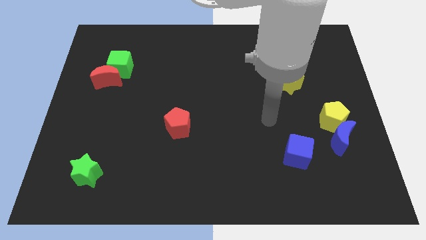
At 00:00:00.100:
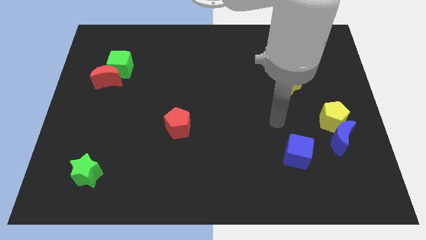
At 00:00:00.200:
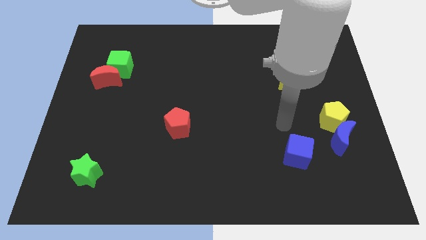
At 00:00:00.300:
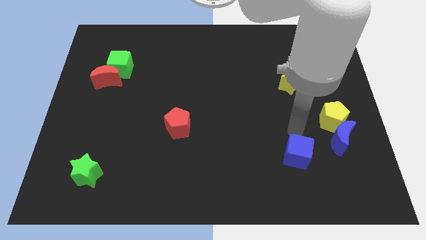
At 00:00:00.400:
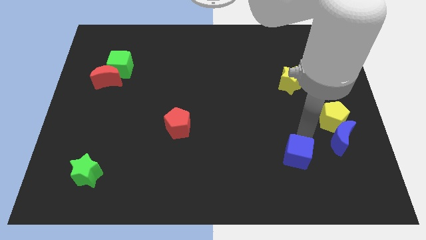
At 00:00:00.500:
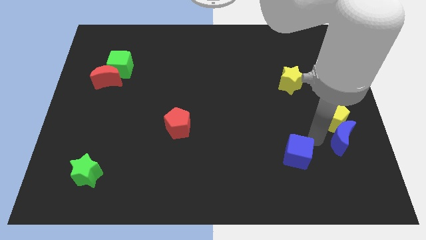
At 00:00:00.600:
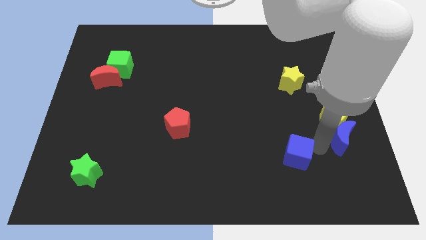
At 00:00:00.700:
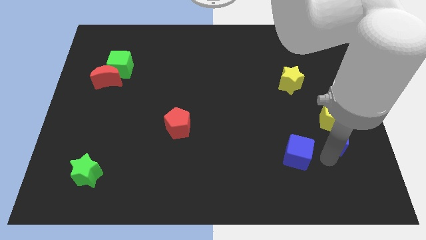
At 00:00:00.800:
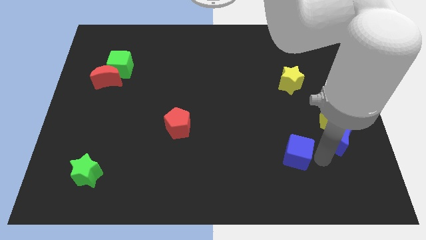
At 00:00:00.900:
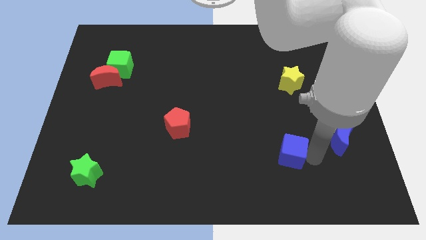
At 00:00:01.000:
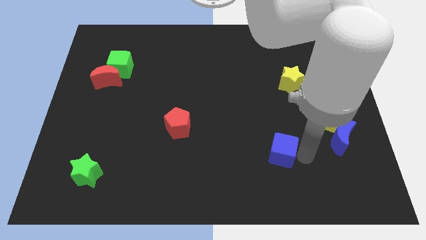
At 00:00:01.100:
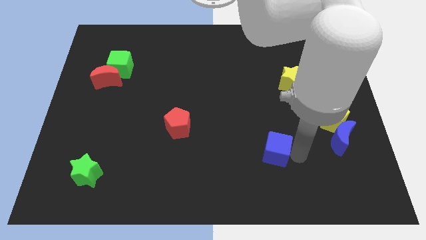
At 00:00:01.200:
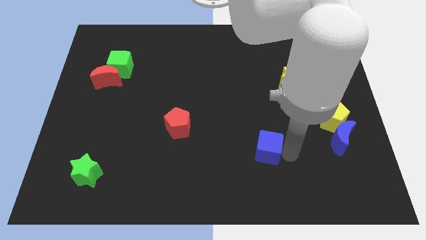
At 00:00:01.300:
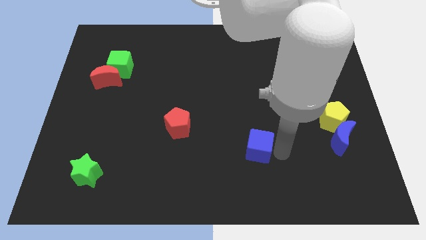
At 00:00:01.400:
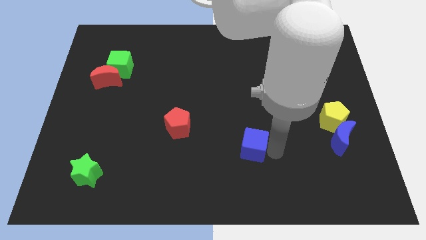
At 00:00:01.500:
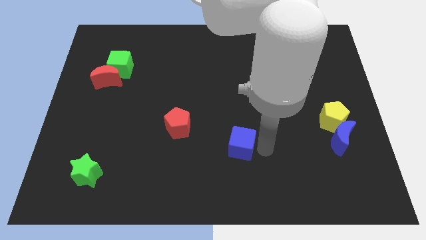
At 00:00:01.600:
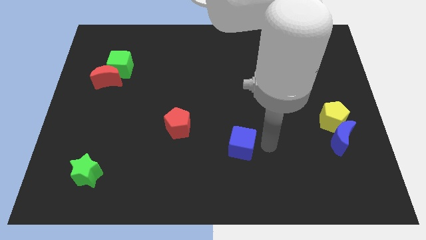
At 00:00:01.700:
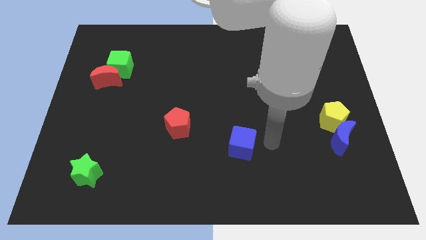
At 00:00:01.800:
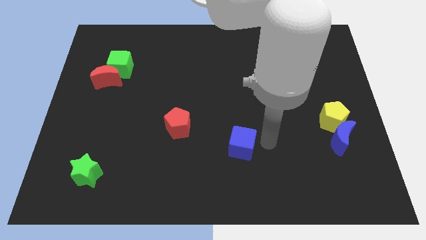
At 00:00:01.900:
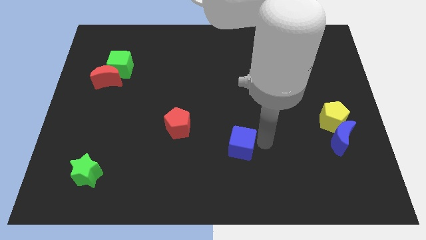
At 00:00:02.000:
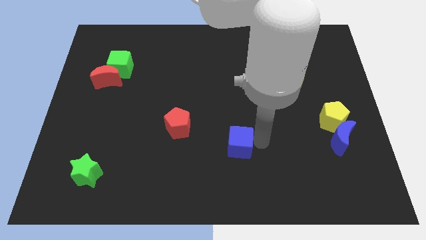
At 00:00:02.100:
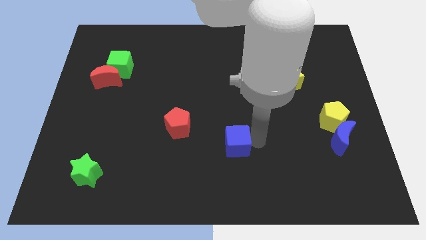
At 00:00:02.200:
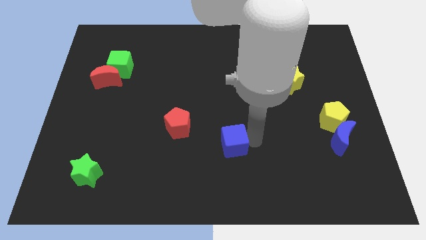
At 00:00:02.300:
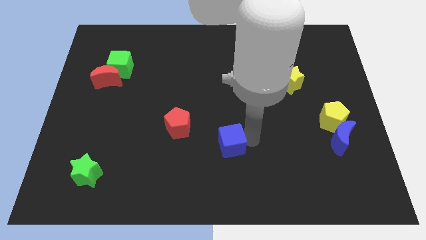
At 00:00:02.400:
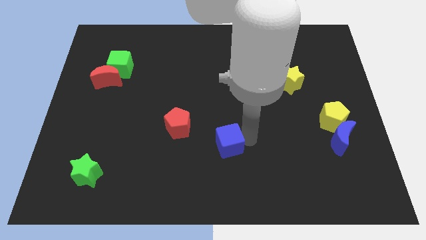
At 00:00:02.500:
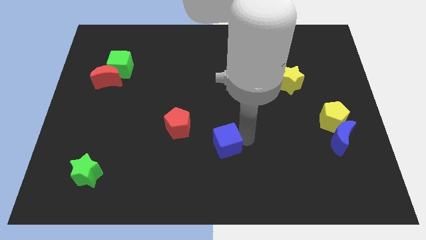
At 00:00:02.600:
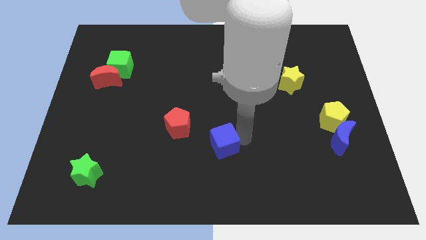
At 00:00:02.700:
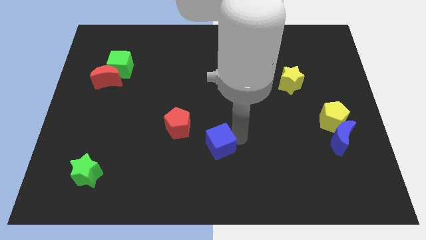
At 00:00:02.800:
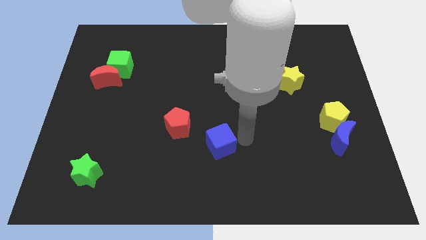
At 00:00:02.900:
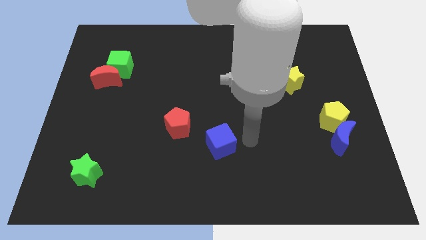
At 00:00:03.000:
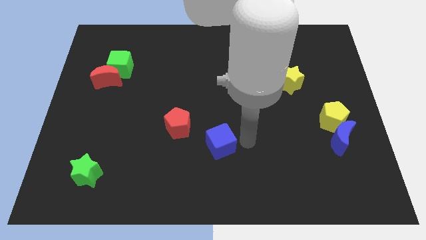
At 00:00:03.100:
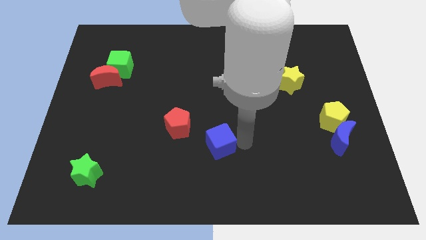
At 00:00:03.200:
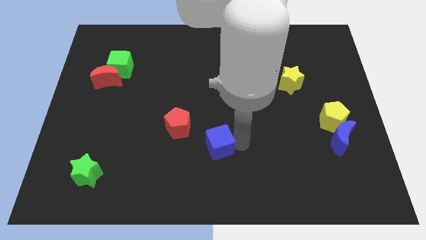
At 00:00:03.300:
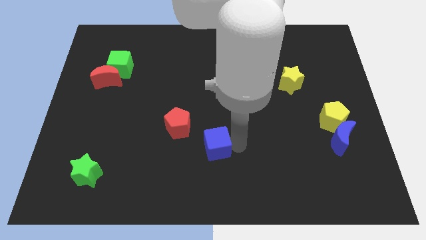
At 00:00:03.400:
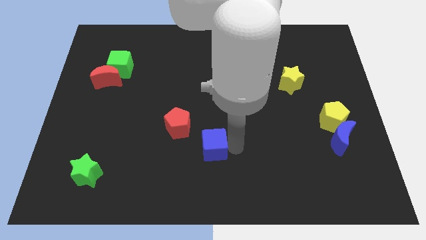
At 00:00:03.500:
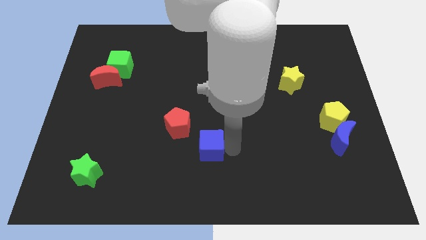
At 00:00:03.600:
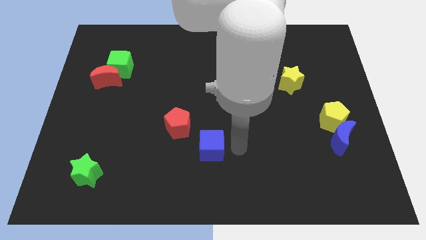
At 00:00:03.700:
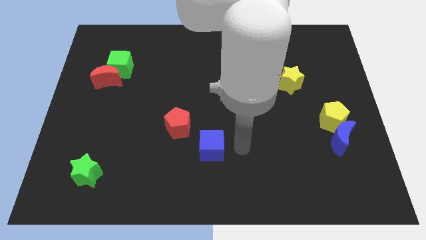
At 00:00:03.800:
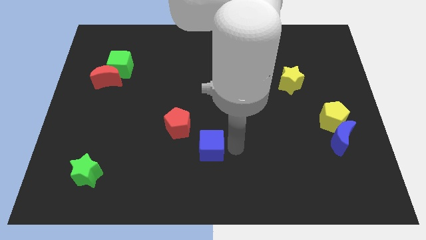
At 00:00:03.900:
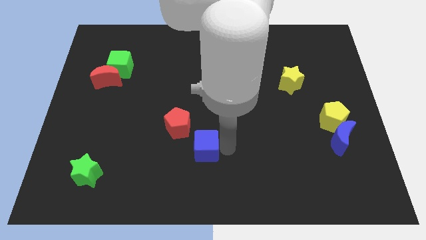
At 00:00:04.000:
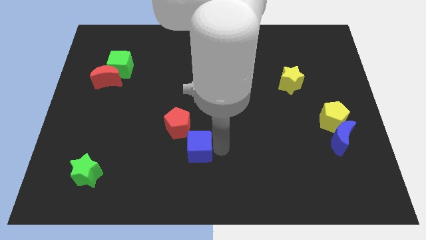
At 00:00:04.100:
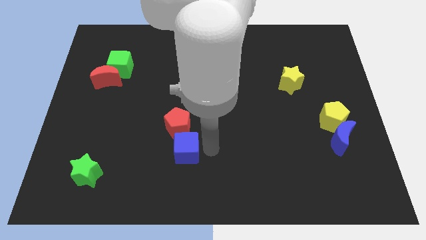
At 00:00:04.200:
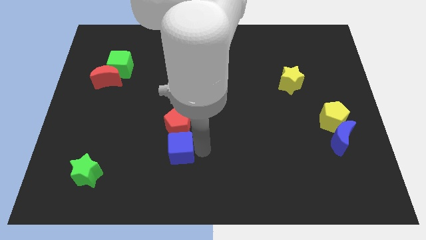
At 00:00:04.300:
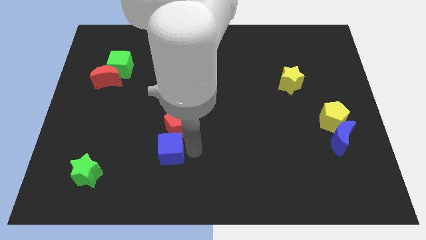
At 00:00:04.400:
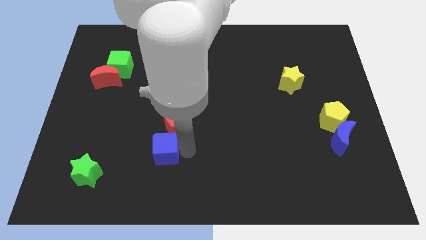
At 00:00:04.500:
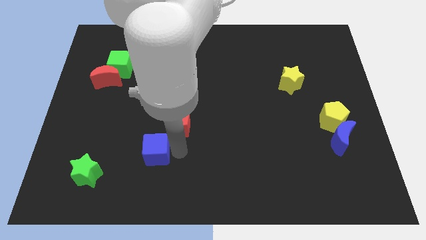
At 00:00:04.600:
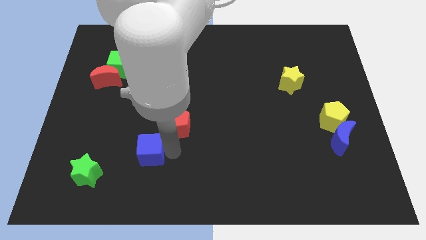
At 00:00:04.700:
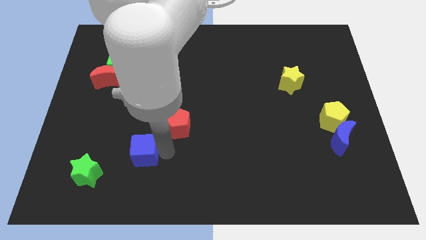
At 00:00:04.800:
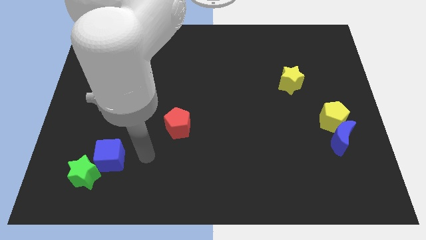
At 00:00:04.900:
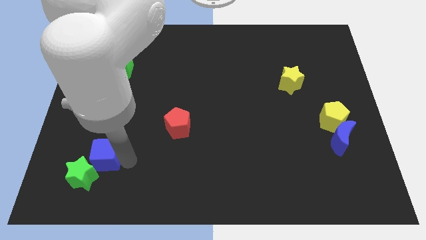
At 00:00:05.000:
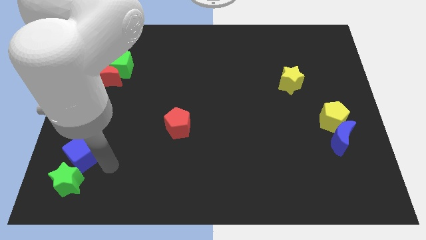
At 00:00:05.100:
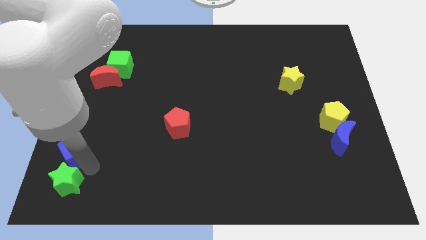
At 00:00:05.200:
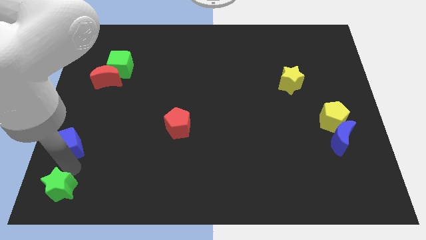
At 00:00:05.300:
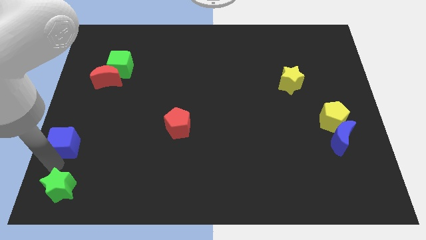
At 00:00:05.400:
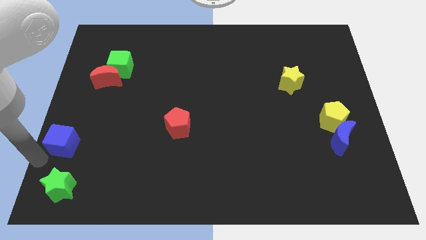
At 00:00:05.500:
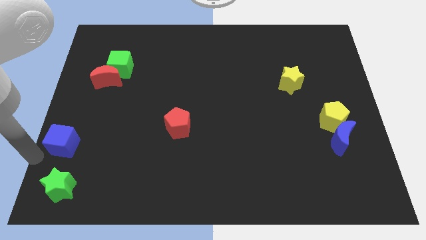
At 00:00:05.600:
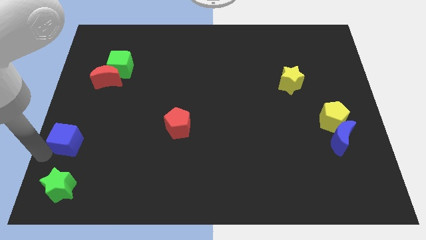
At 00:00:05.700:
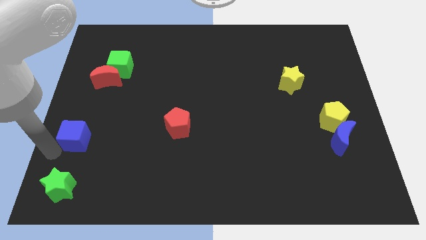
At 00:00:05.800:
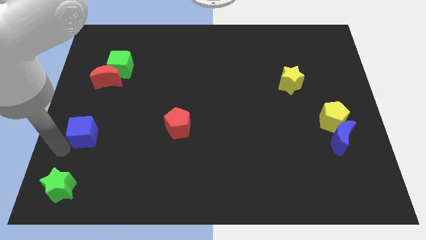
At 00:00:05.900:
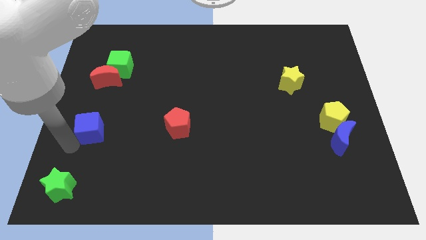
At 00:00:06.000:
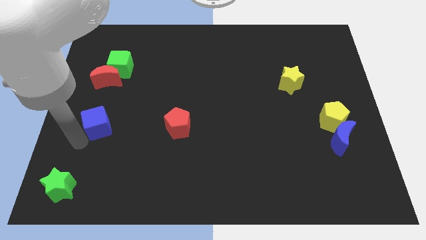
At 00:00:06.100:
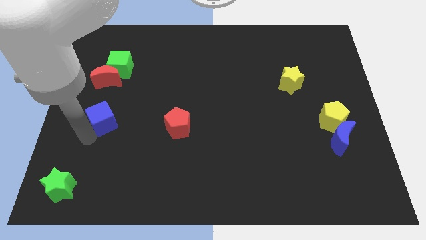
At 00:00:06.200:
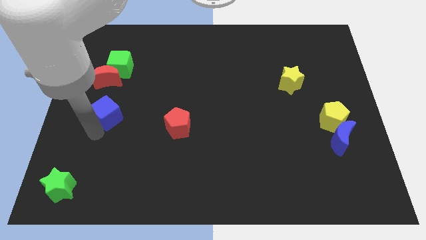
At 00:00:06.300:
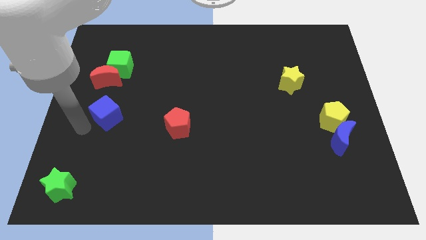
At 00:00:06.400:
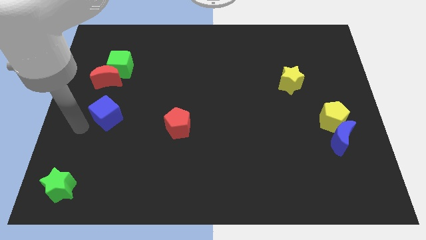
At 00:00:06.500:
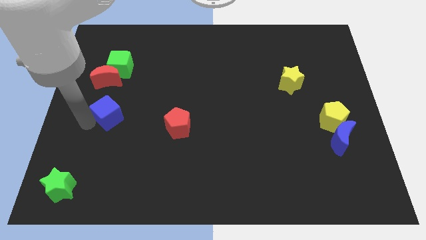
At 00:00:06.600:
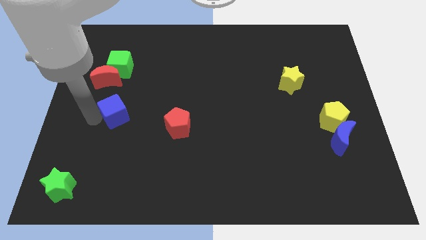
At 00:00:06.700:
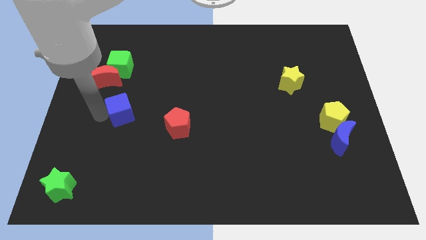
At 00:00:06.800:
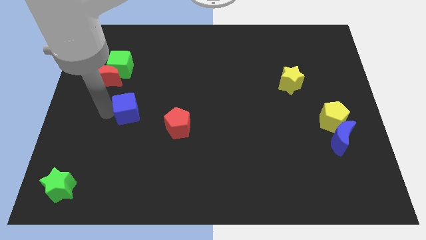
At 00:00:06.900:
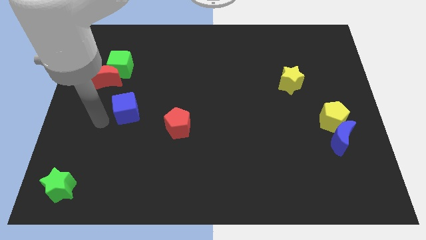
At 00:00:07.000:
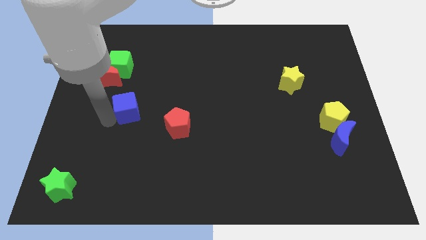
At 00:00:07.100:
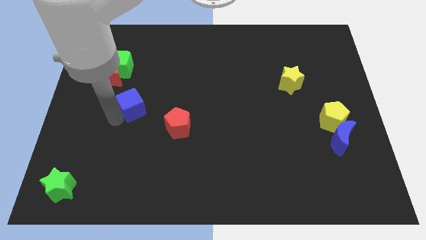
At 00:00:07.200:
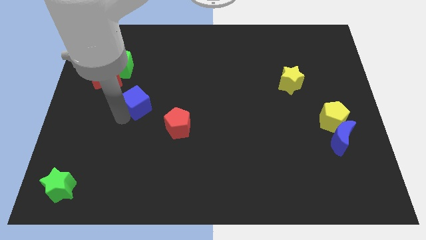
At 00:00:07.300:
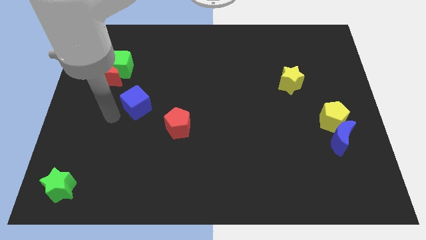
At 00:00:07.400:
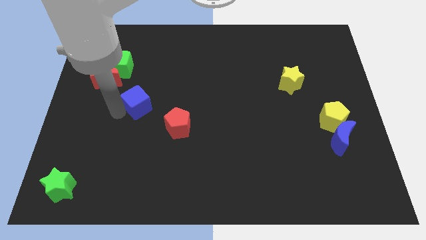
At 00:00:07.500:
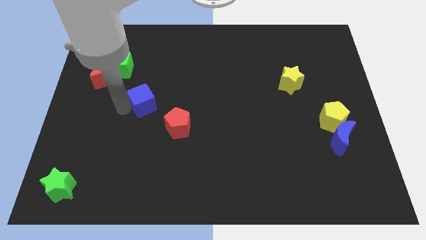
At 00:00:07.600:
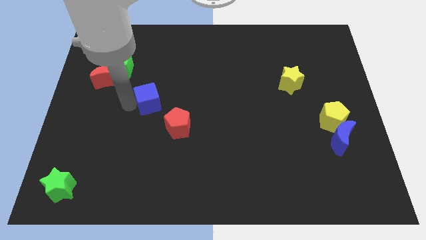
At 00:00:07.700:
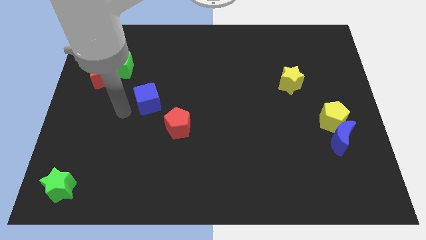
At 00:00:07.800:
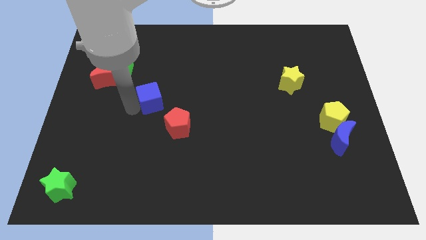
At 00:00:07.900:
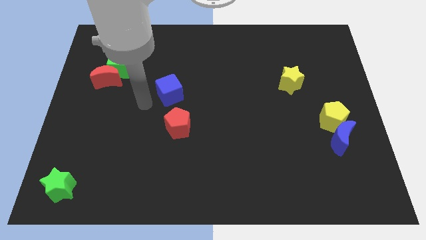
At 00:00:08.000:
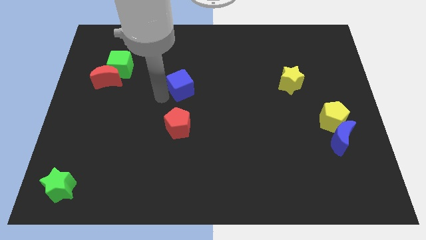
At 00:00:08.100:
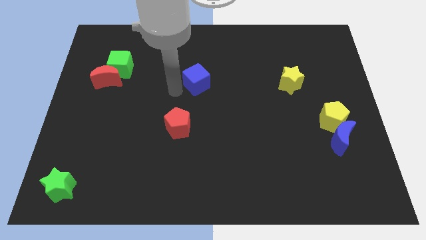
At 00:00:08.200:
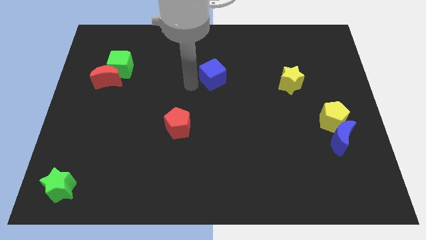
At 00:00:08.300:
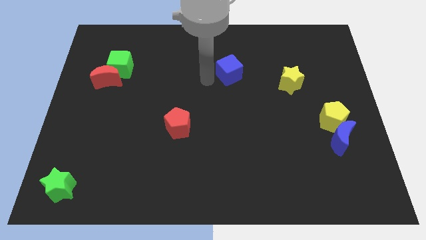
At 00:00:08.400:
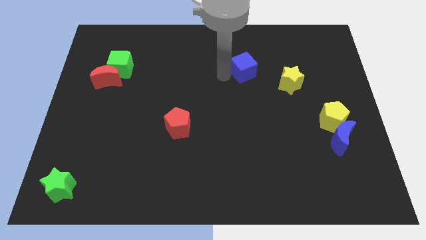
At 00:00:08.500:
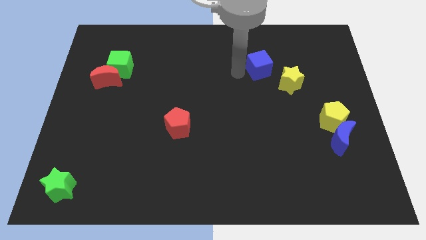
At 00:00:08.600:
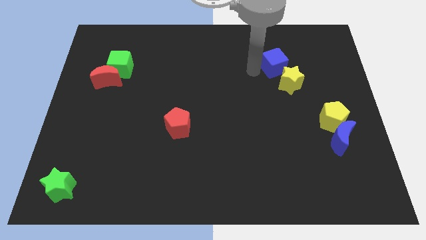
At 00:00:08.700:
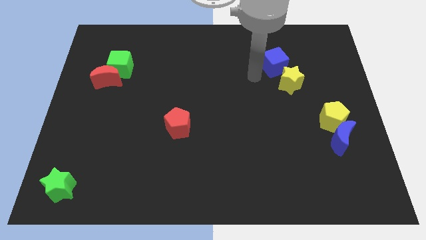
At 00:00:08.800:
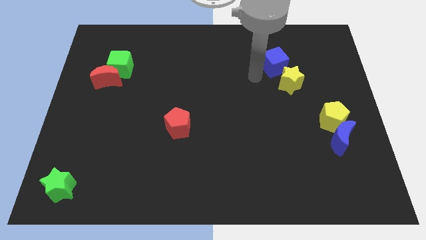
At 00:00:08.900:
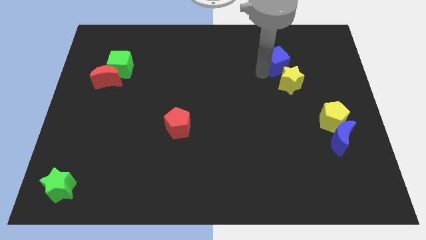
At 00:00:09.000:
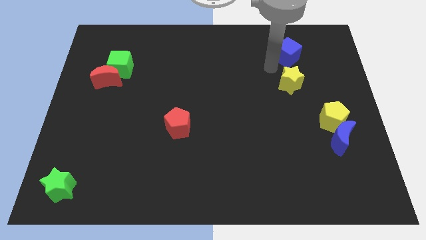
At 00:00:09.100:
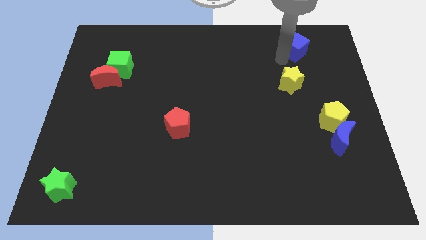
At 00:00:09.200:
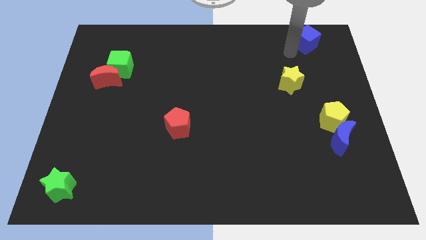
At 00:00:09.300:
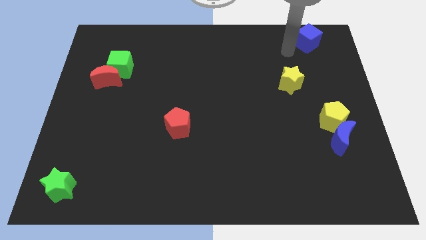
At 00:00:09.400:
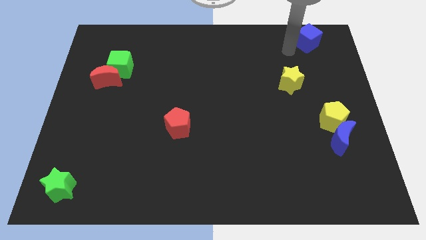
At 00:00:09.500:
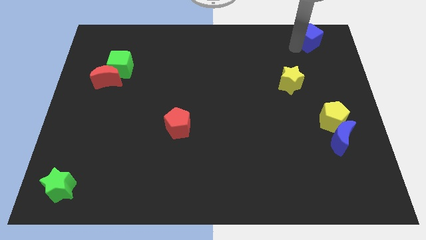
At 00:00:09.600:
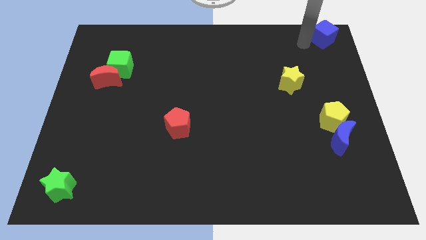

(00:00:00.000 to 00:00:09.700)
slide the blue cube to the top right of the board
